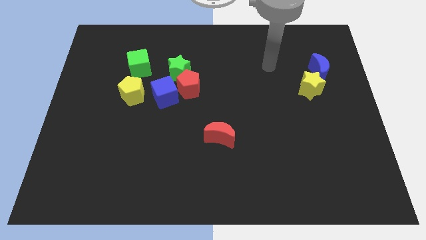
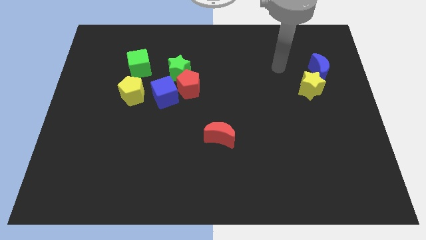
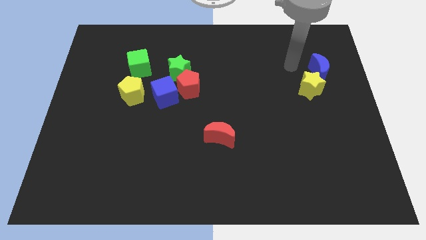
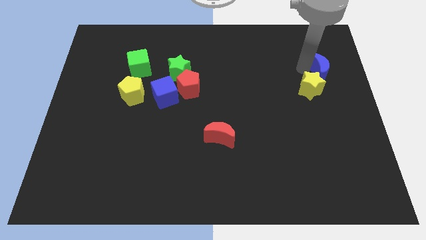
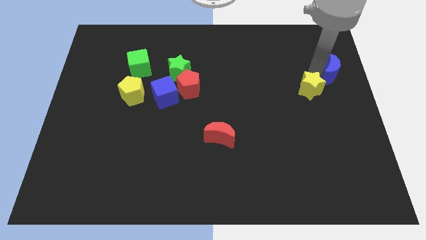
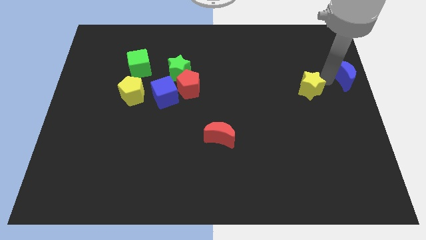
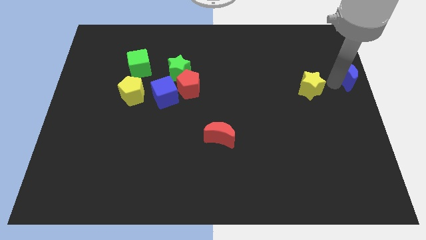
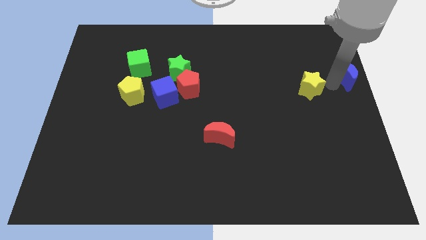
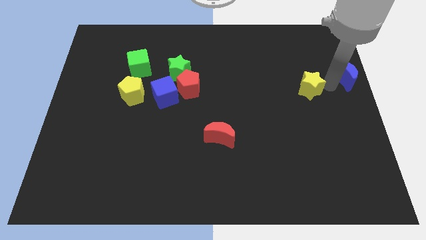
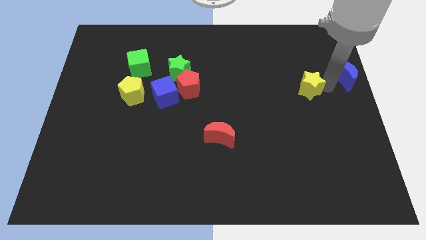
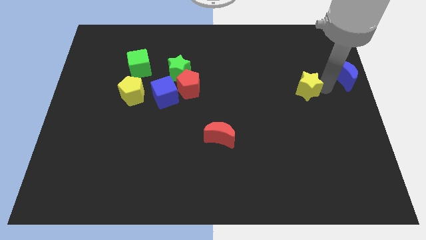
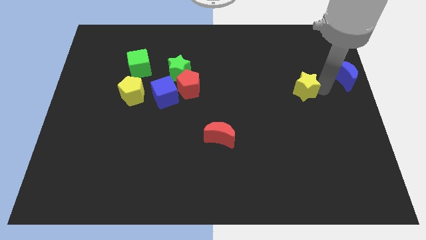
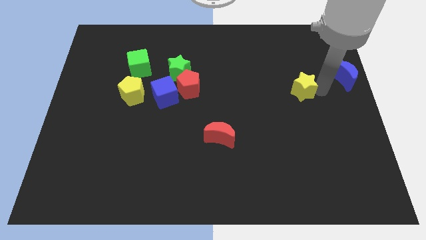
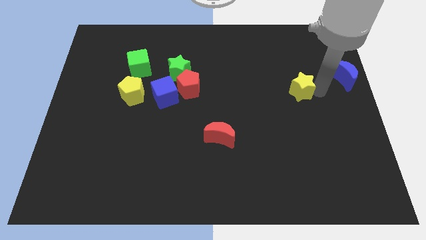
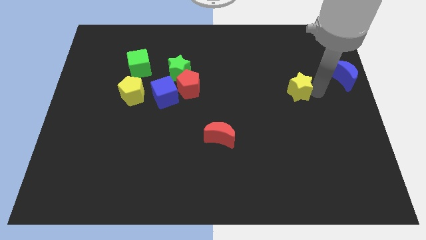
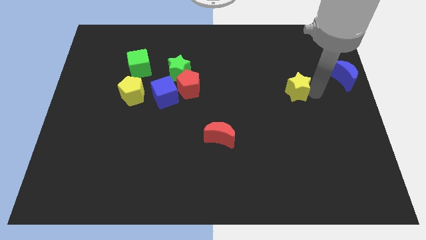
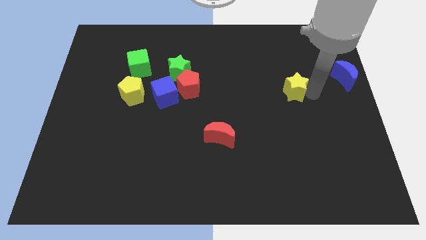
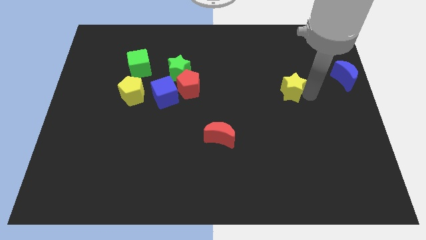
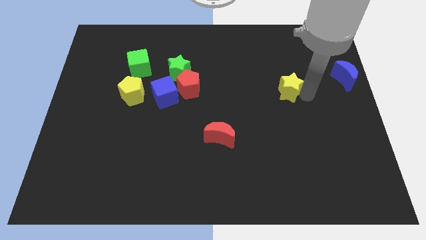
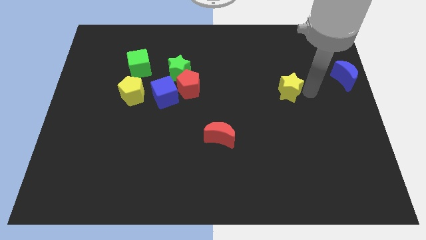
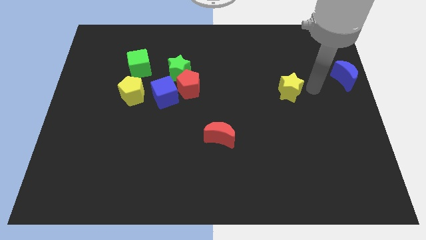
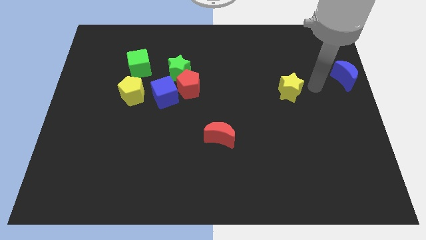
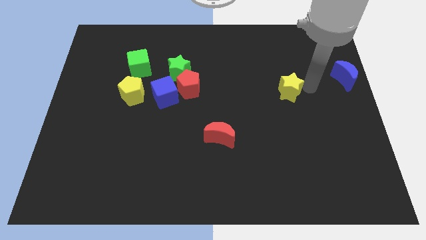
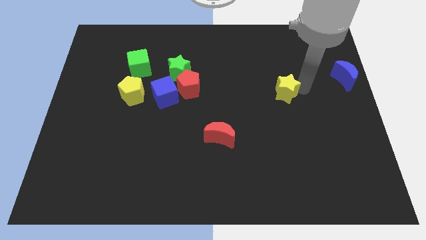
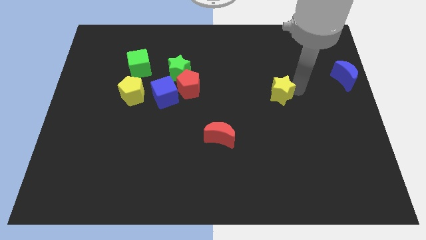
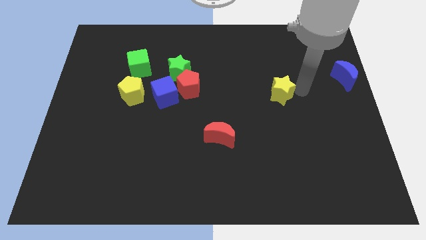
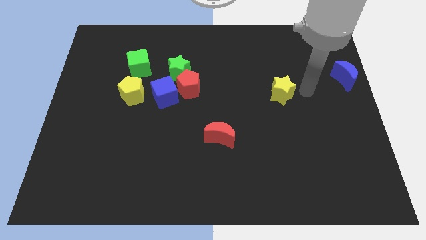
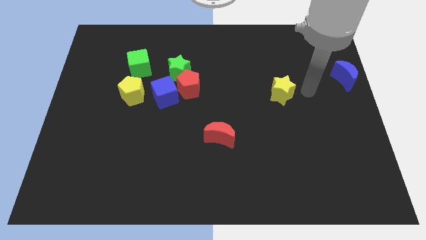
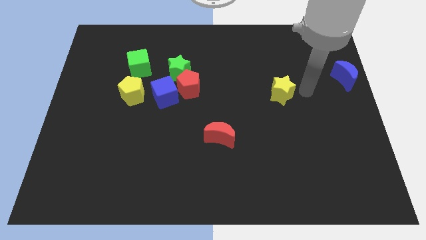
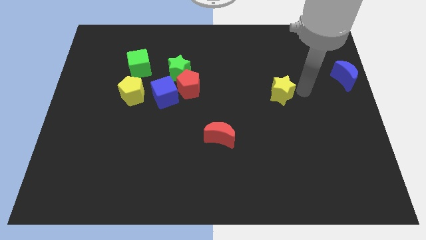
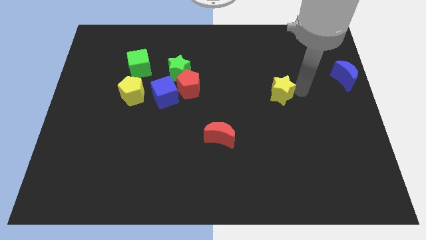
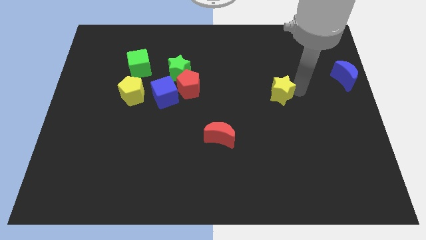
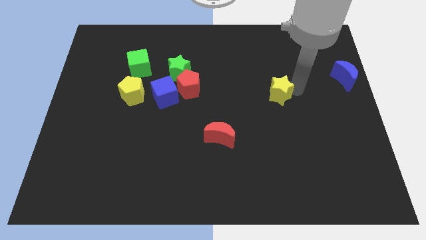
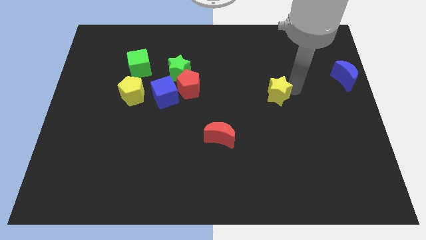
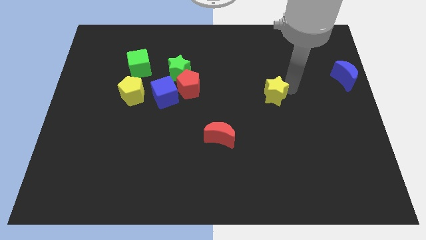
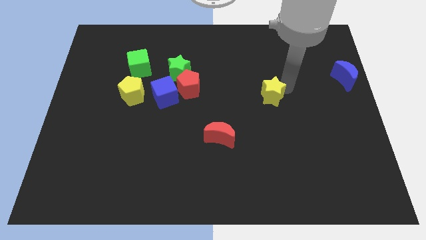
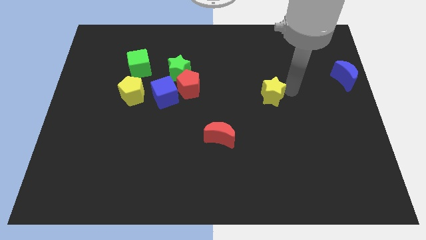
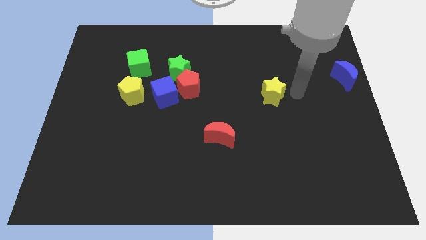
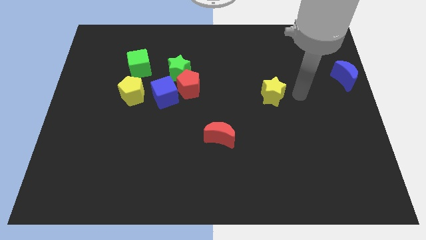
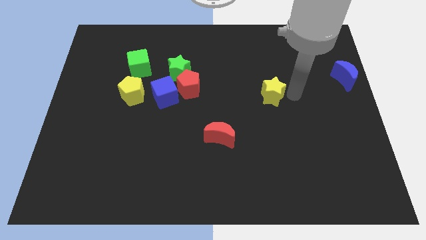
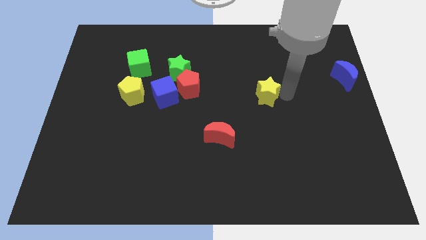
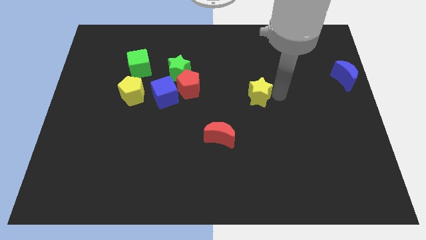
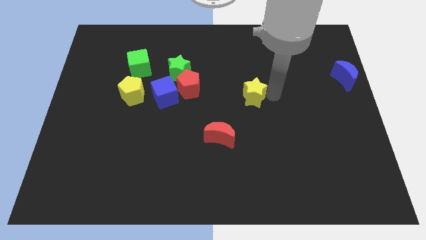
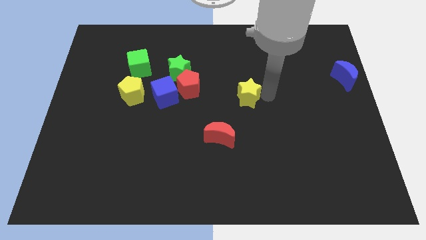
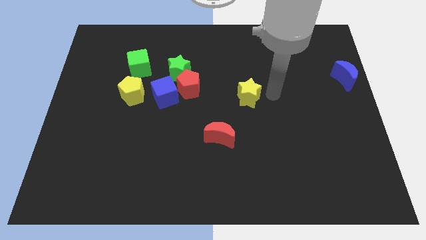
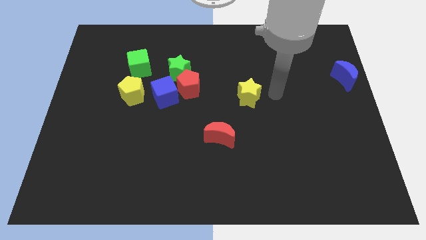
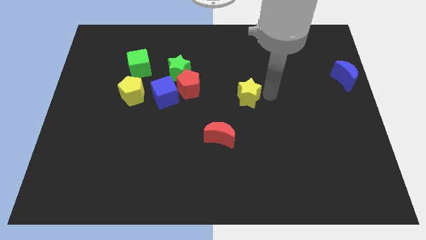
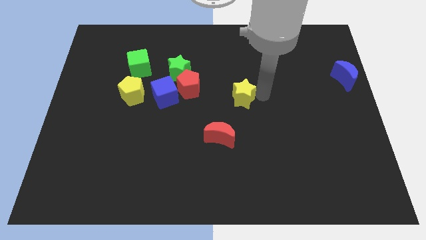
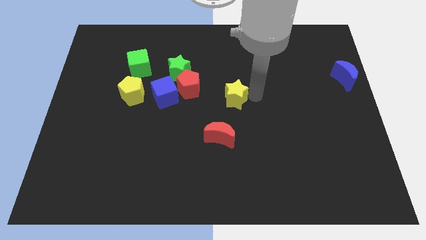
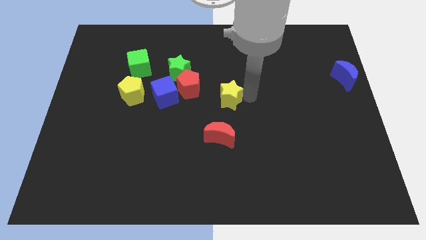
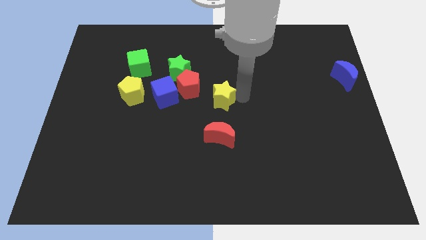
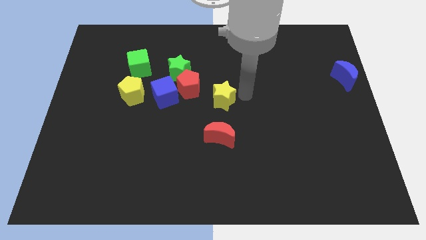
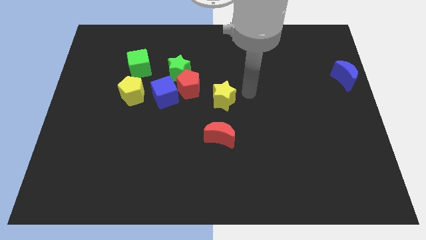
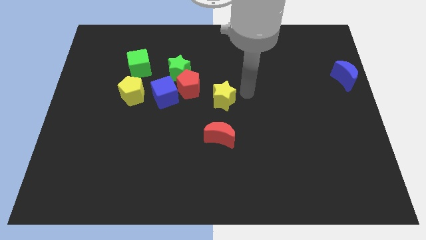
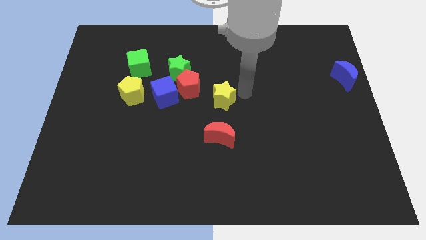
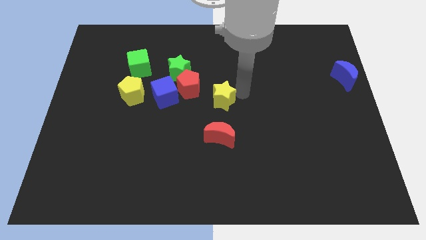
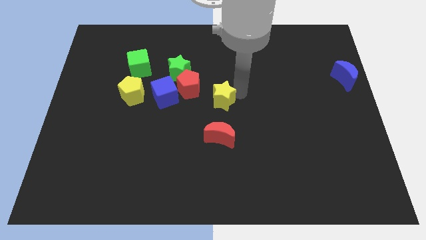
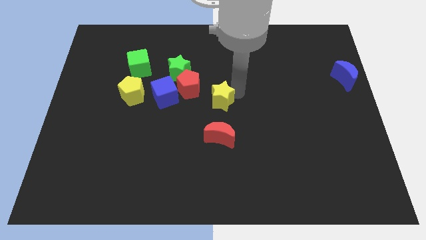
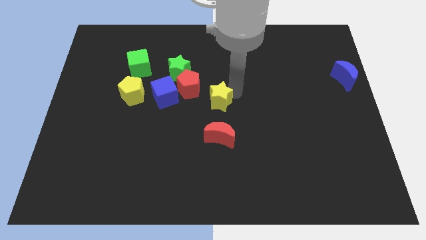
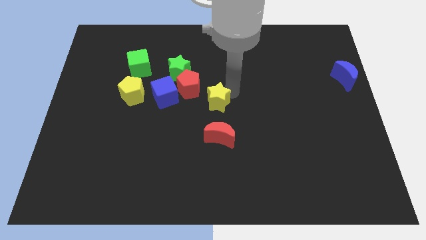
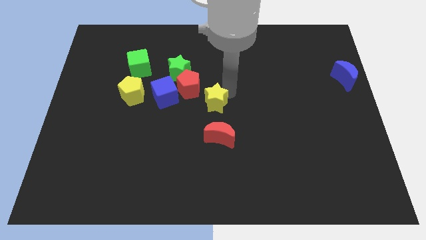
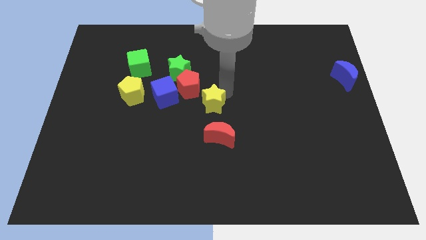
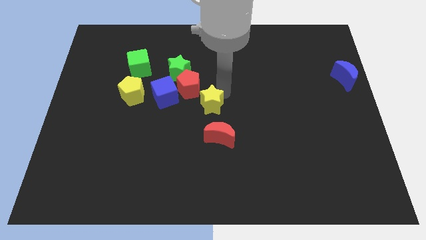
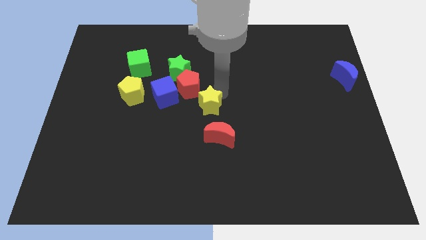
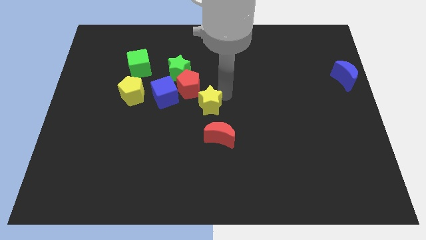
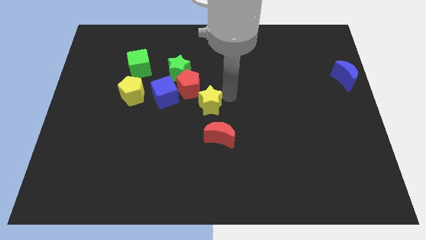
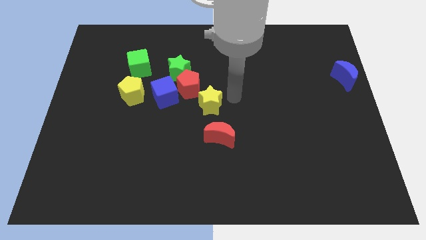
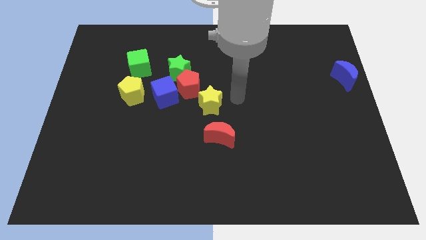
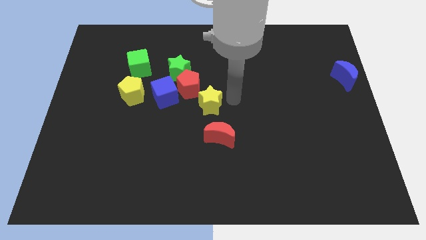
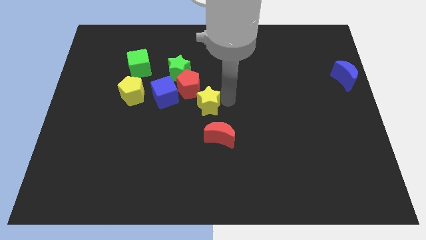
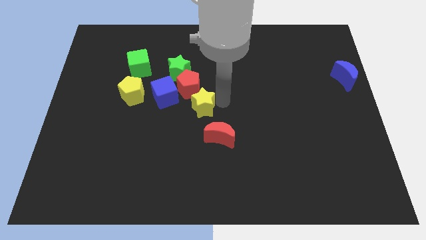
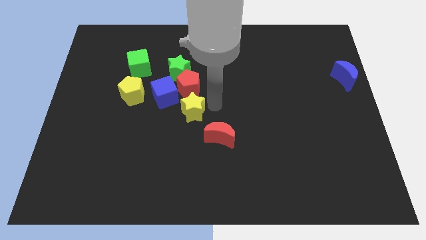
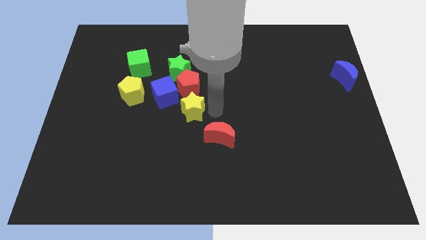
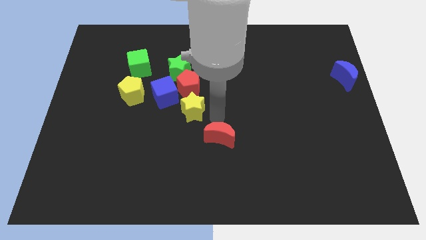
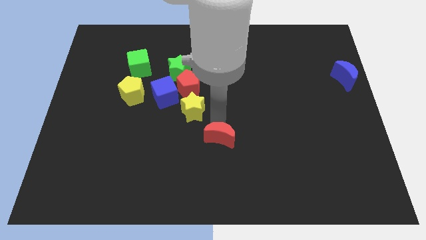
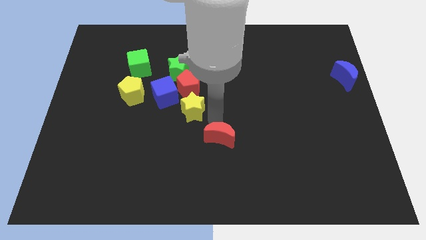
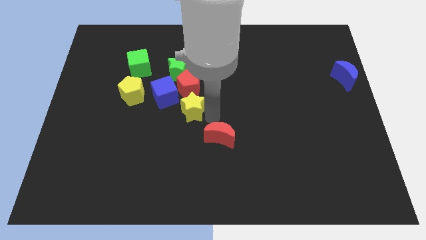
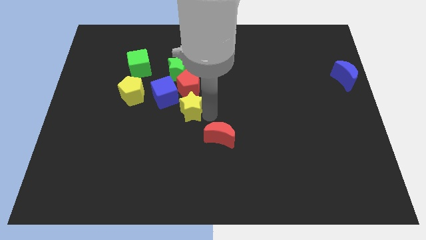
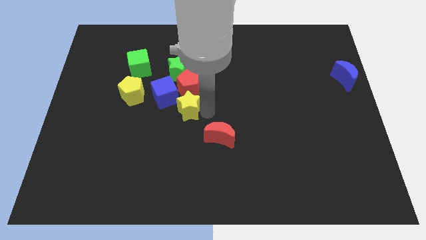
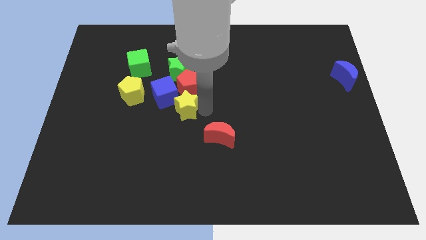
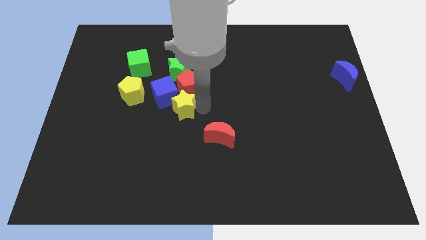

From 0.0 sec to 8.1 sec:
slide the yellow star next to the blue cube
